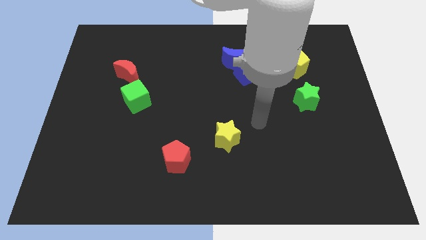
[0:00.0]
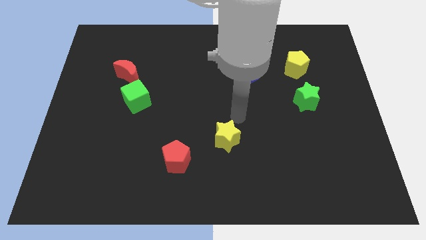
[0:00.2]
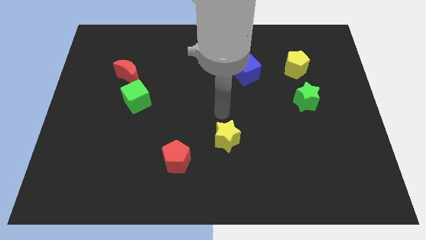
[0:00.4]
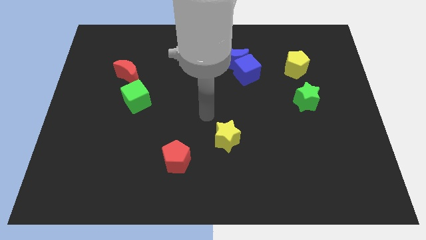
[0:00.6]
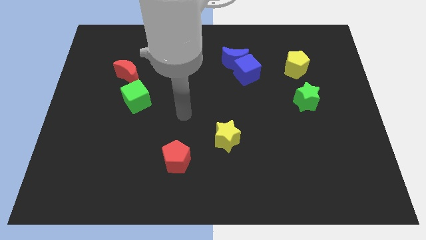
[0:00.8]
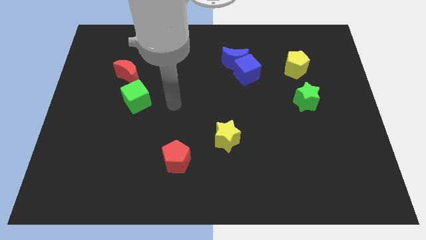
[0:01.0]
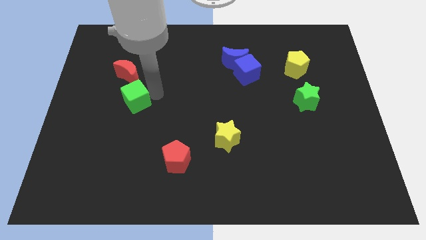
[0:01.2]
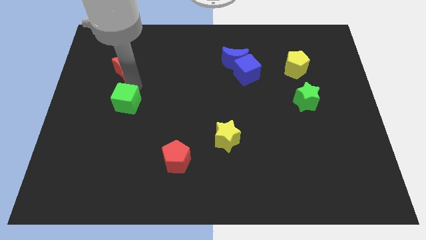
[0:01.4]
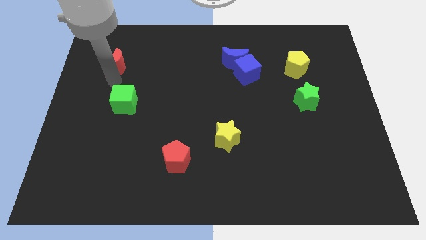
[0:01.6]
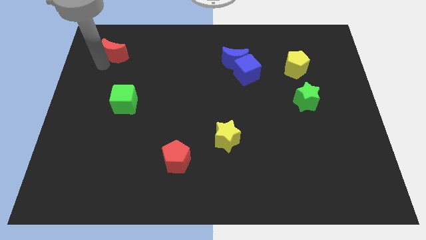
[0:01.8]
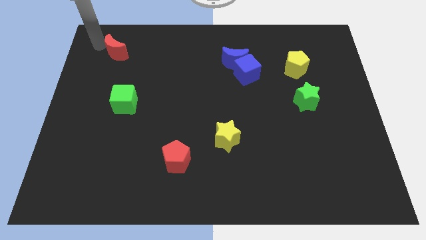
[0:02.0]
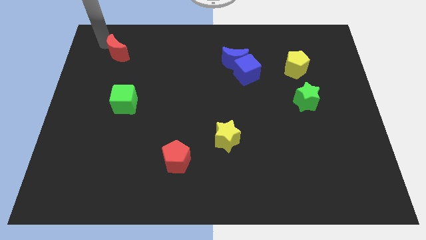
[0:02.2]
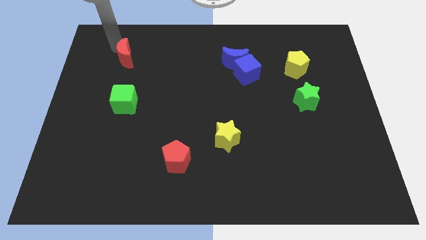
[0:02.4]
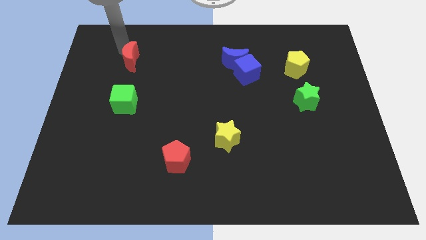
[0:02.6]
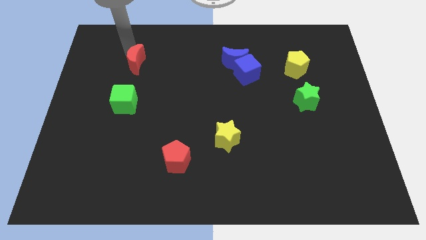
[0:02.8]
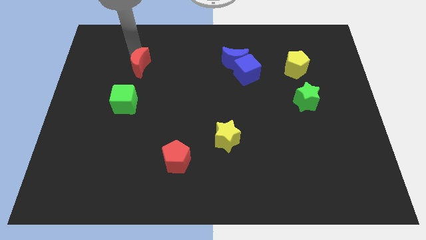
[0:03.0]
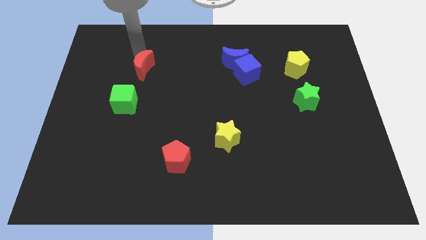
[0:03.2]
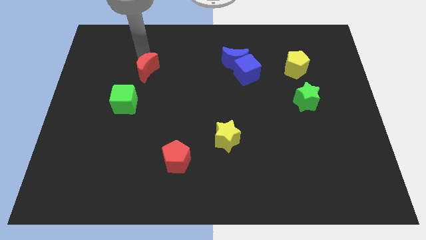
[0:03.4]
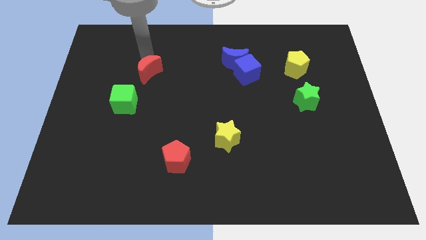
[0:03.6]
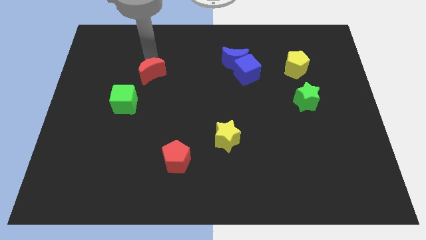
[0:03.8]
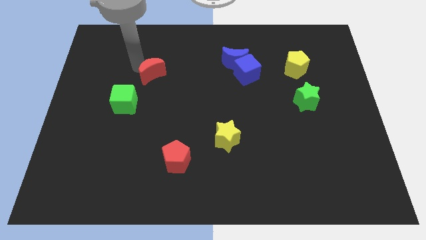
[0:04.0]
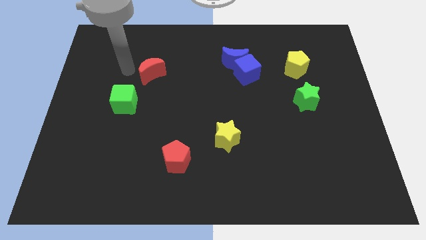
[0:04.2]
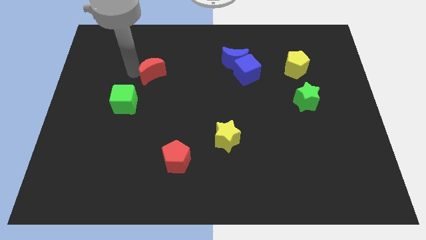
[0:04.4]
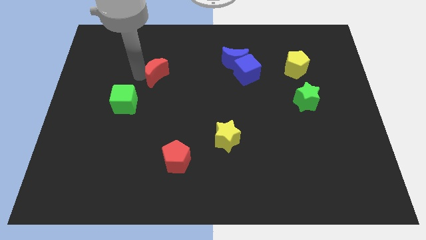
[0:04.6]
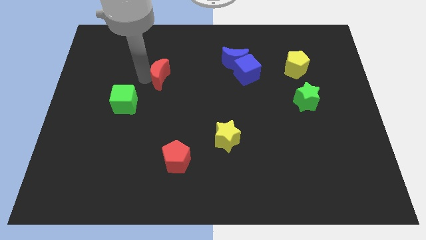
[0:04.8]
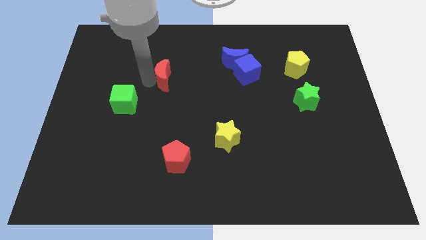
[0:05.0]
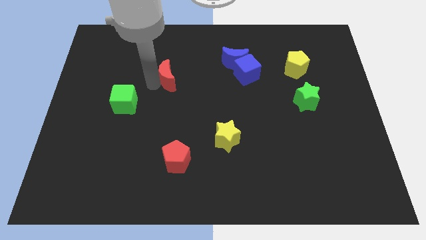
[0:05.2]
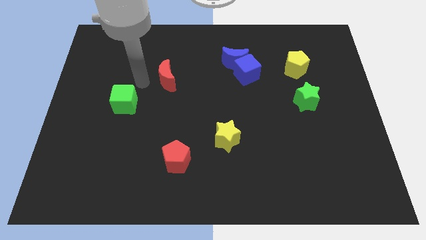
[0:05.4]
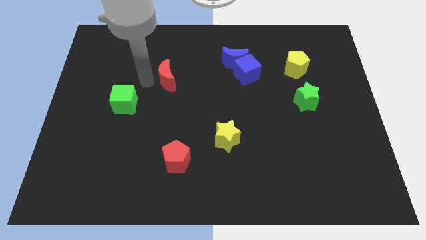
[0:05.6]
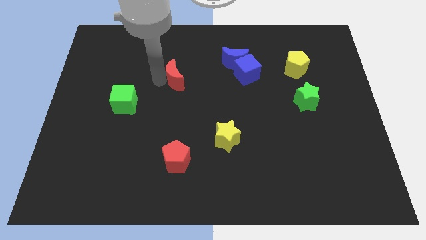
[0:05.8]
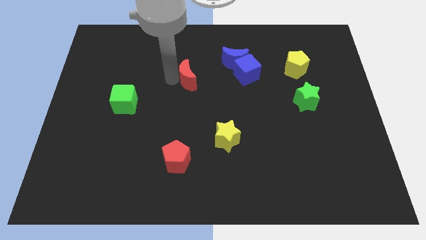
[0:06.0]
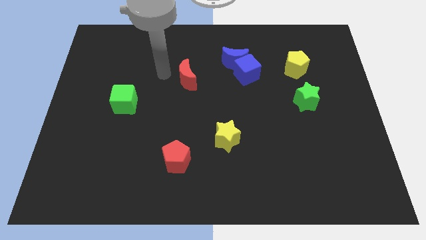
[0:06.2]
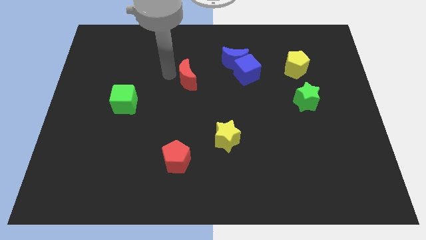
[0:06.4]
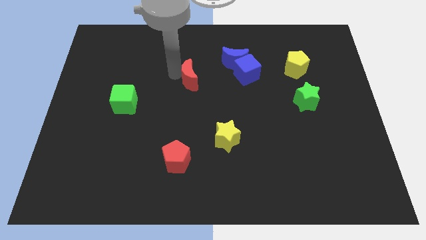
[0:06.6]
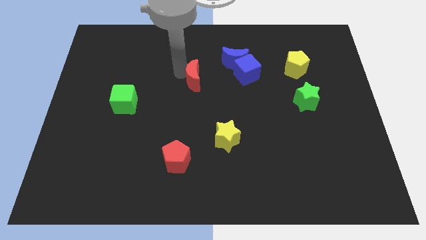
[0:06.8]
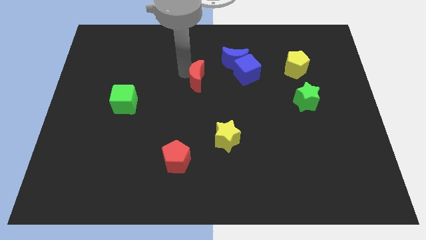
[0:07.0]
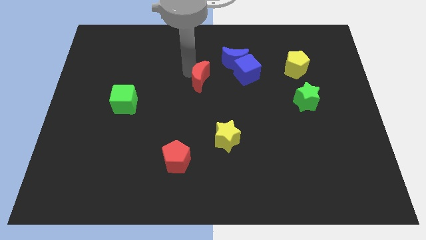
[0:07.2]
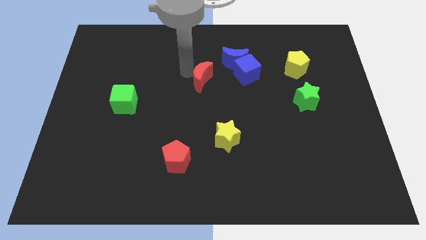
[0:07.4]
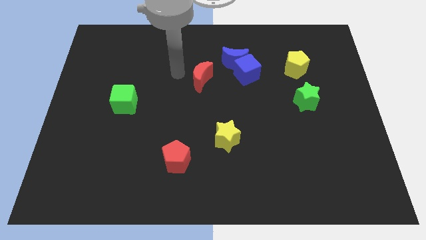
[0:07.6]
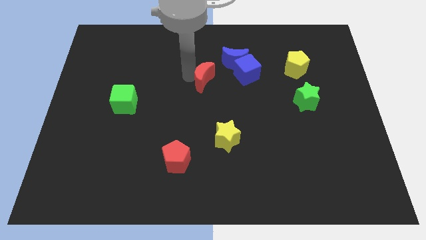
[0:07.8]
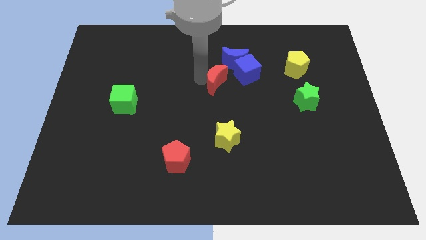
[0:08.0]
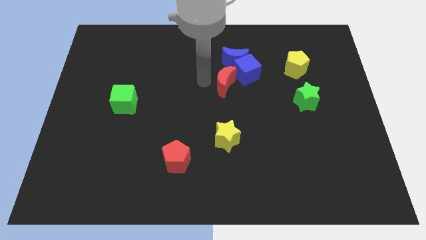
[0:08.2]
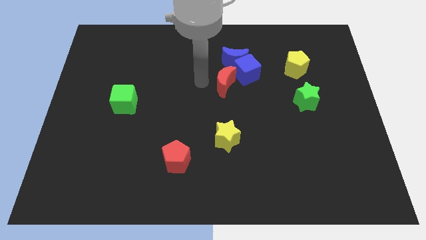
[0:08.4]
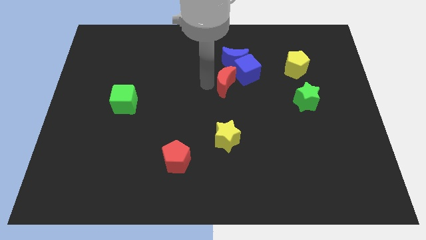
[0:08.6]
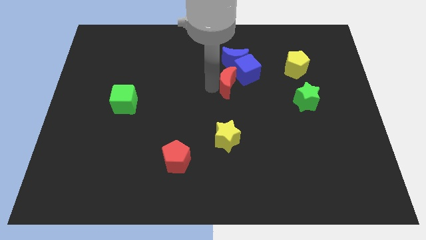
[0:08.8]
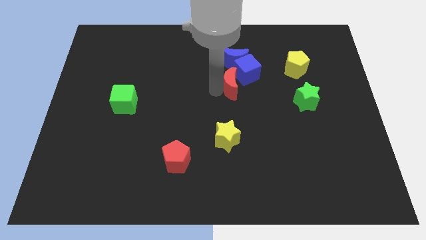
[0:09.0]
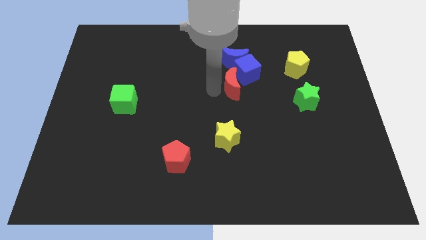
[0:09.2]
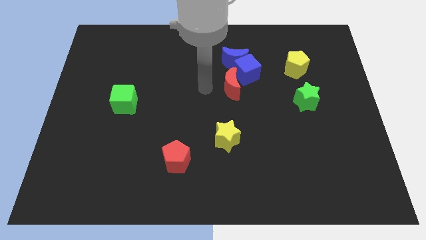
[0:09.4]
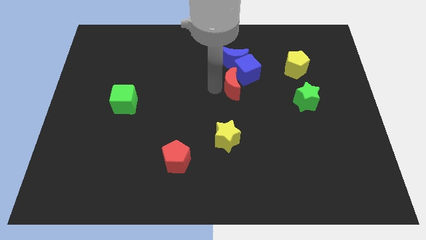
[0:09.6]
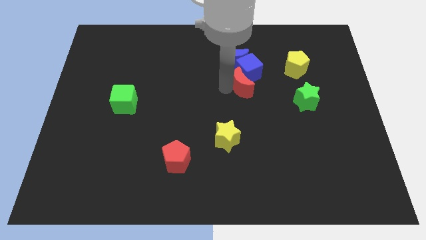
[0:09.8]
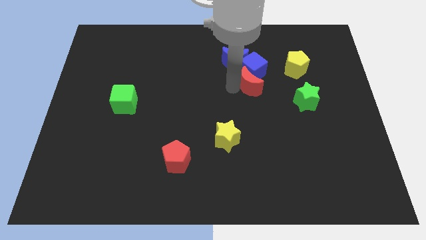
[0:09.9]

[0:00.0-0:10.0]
slide the red moon to the bottom right of the blue cube

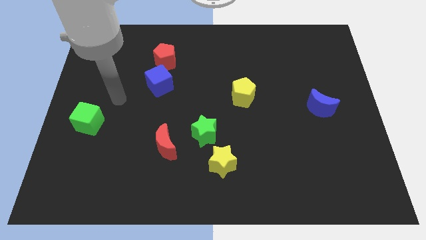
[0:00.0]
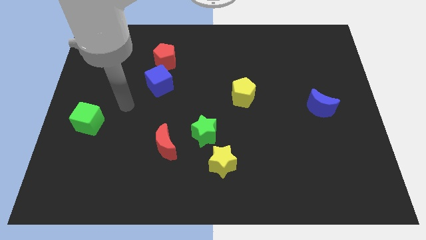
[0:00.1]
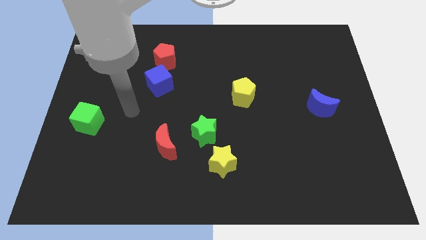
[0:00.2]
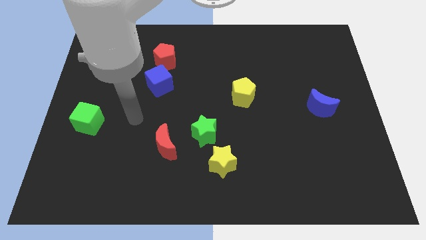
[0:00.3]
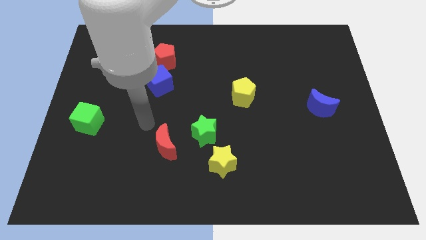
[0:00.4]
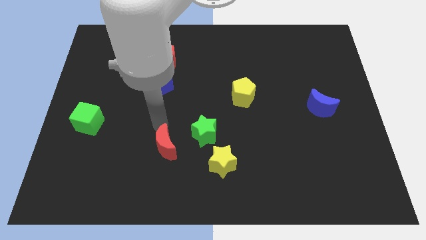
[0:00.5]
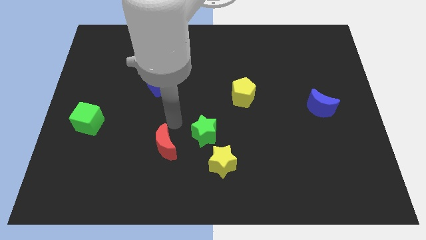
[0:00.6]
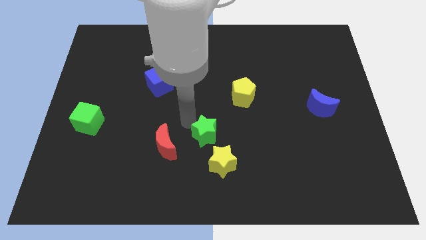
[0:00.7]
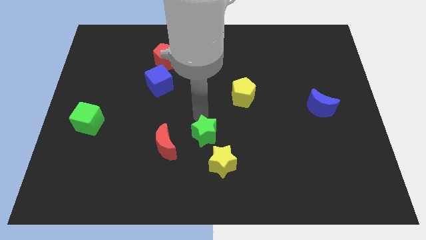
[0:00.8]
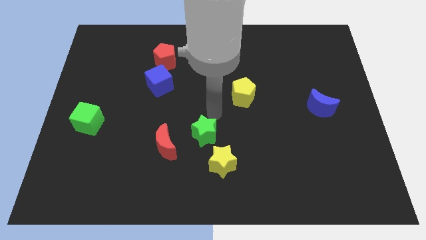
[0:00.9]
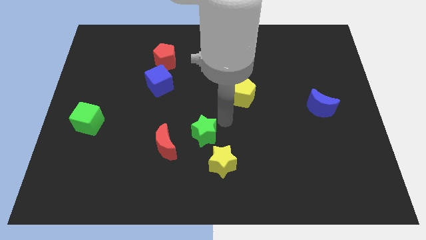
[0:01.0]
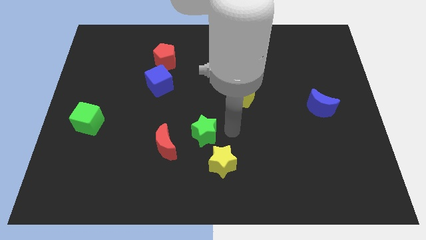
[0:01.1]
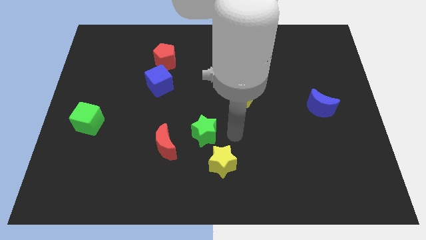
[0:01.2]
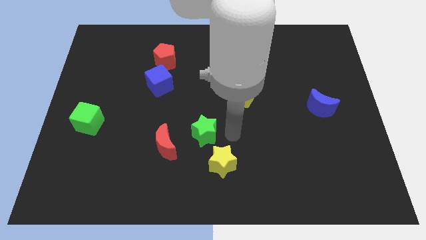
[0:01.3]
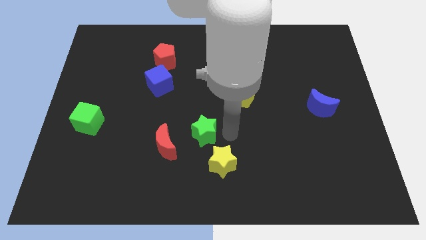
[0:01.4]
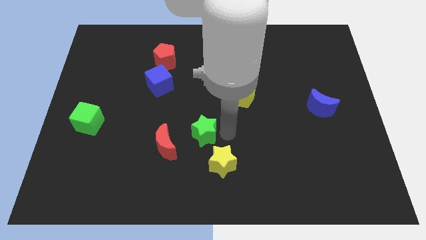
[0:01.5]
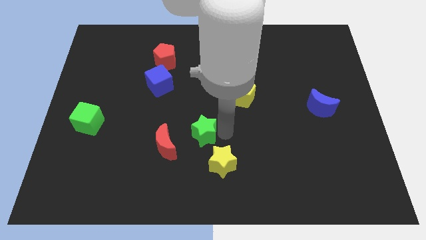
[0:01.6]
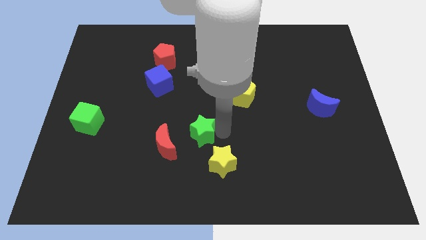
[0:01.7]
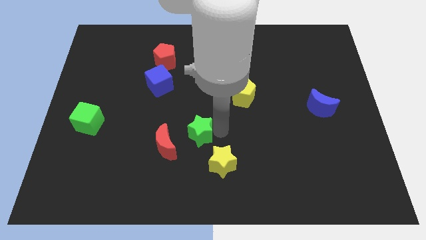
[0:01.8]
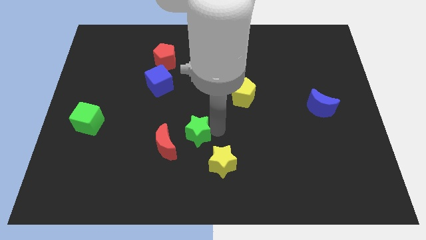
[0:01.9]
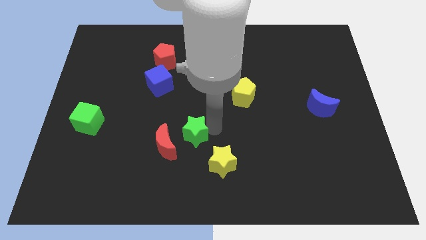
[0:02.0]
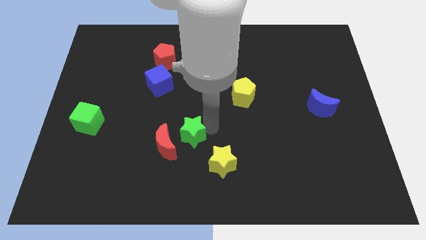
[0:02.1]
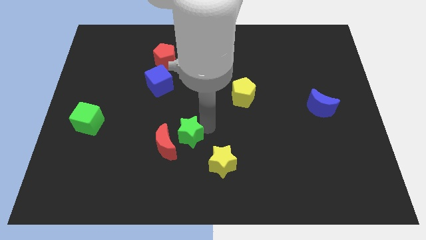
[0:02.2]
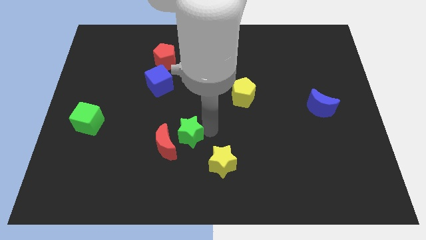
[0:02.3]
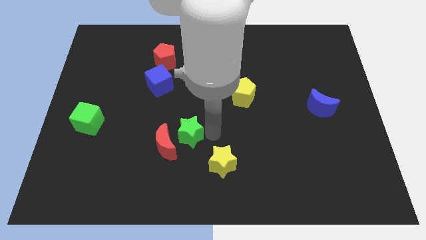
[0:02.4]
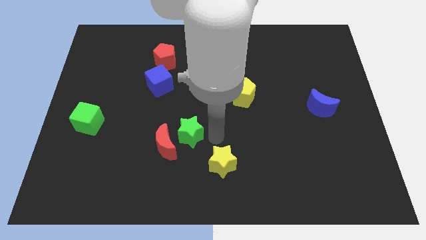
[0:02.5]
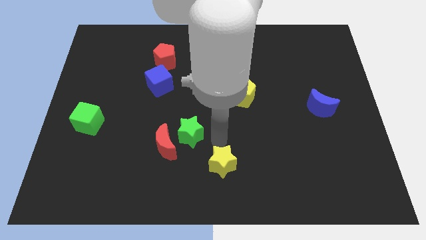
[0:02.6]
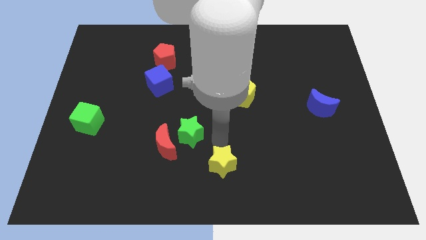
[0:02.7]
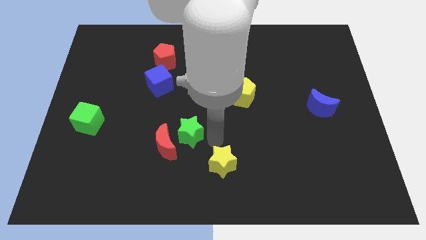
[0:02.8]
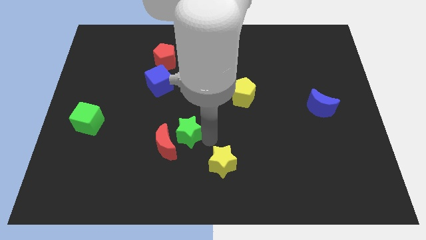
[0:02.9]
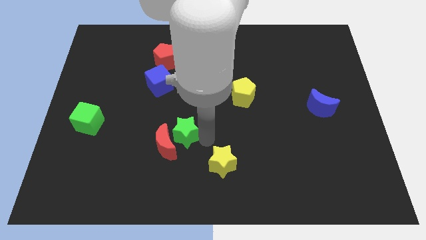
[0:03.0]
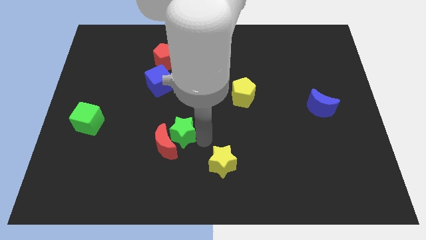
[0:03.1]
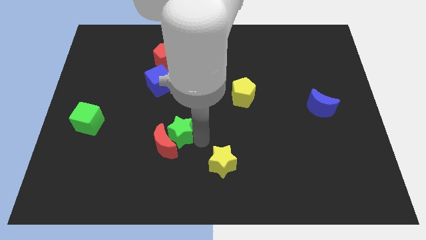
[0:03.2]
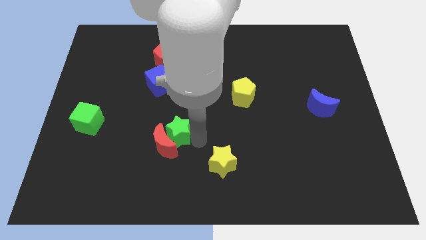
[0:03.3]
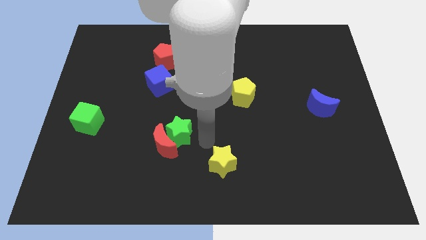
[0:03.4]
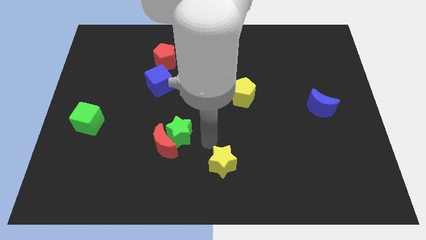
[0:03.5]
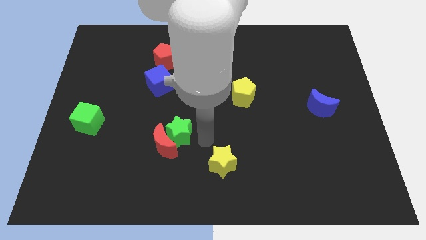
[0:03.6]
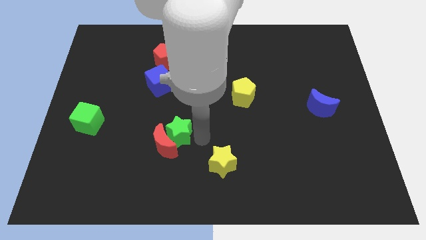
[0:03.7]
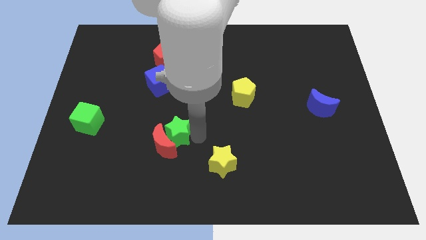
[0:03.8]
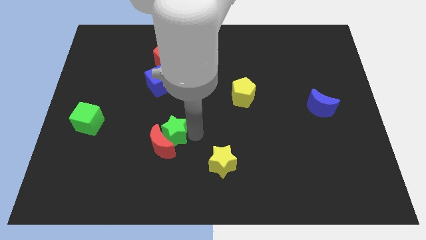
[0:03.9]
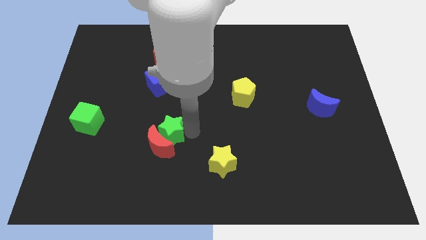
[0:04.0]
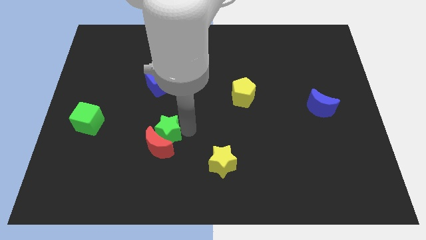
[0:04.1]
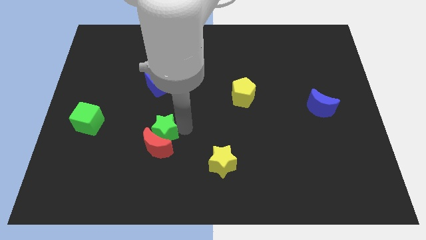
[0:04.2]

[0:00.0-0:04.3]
push the green star to the top left of the red moon
